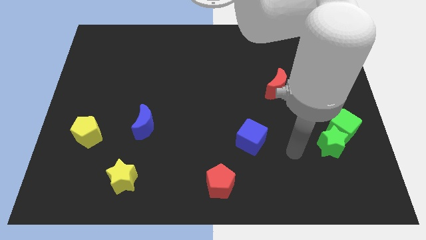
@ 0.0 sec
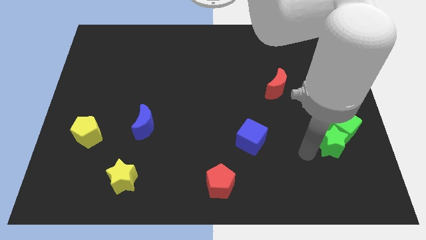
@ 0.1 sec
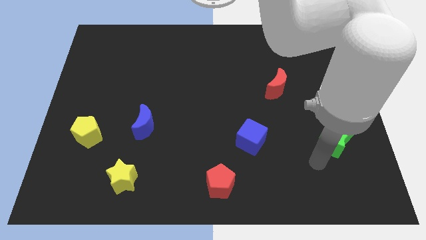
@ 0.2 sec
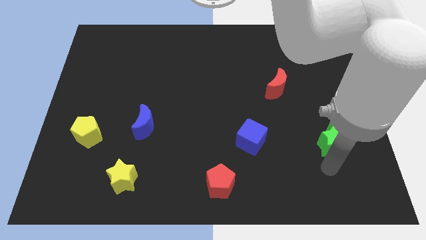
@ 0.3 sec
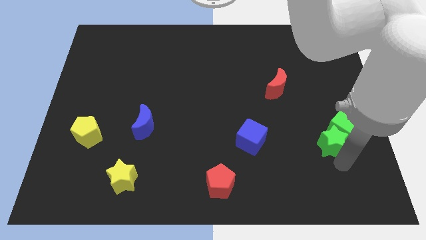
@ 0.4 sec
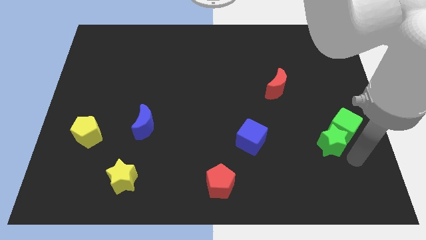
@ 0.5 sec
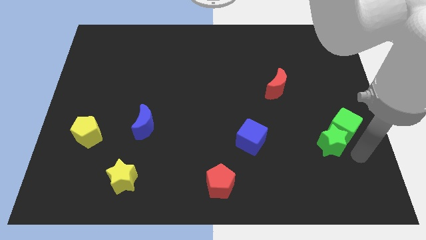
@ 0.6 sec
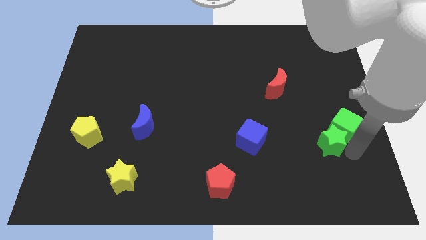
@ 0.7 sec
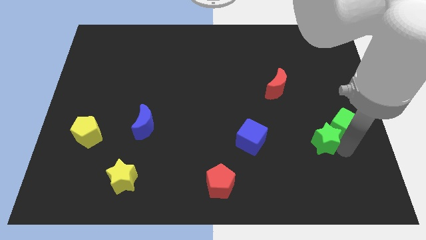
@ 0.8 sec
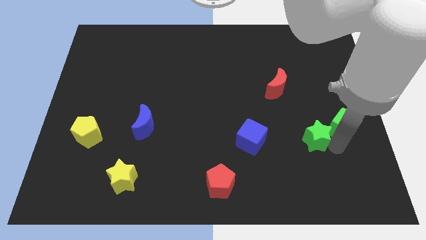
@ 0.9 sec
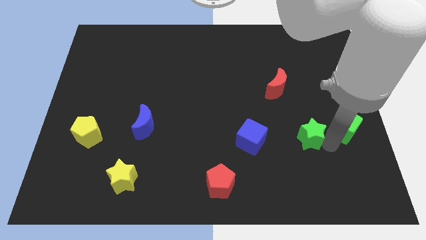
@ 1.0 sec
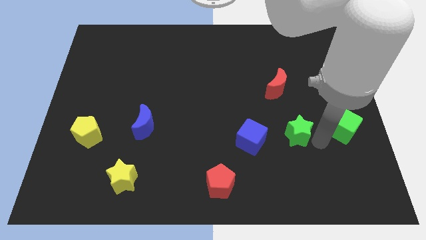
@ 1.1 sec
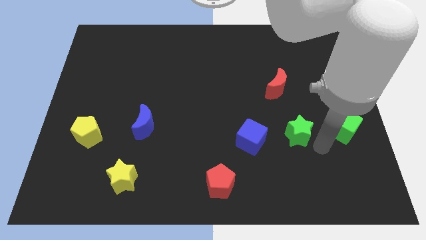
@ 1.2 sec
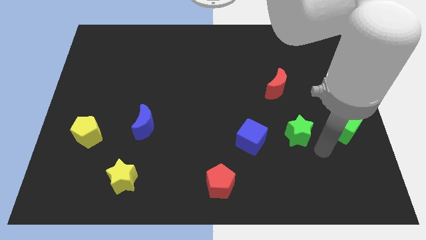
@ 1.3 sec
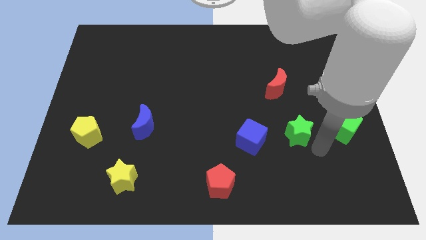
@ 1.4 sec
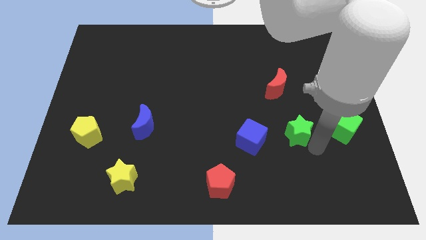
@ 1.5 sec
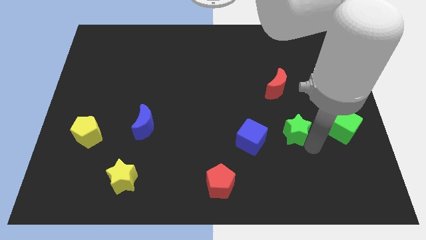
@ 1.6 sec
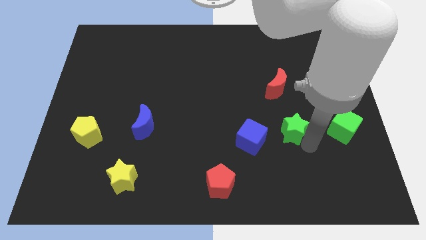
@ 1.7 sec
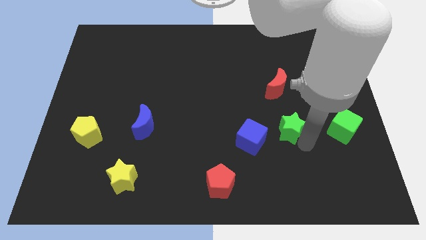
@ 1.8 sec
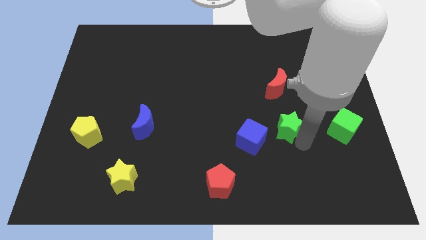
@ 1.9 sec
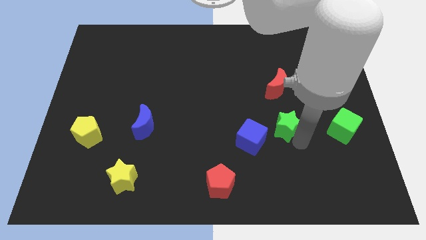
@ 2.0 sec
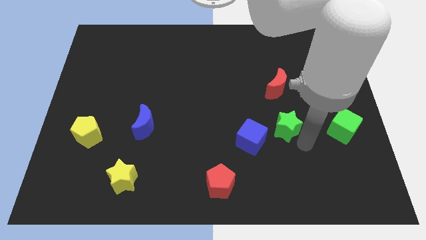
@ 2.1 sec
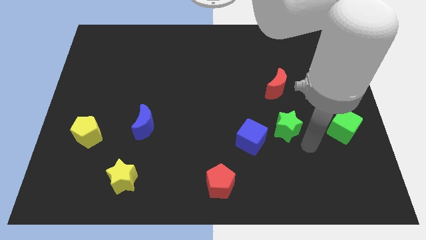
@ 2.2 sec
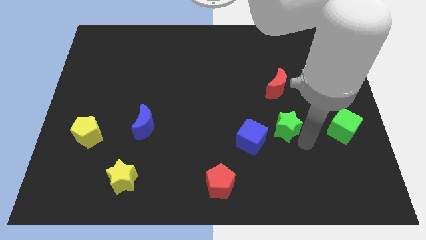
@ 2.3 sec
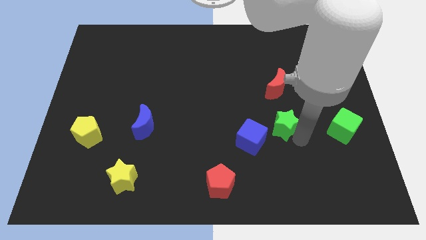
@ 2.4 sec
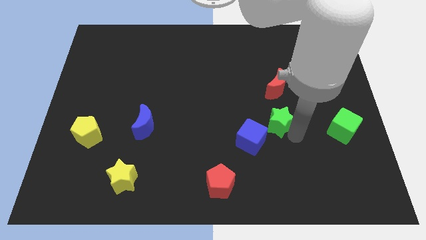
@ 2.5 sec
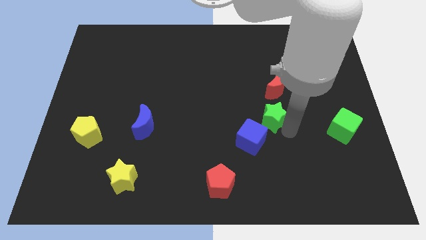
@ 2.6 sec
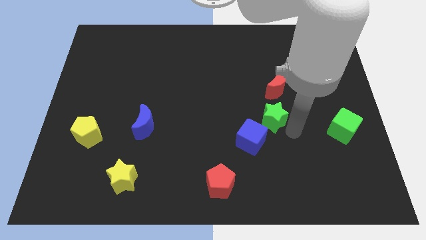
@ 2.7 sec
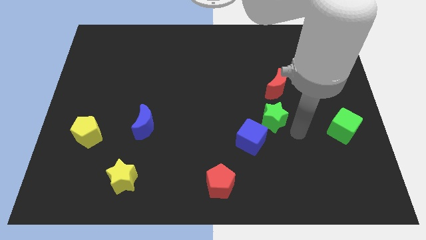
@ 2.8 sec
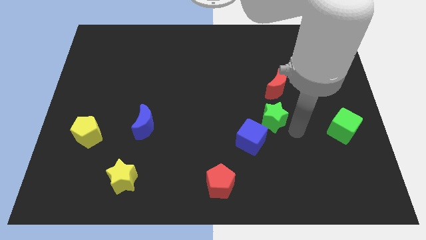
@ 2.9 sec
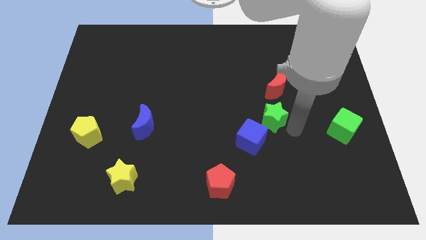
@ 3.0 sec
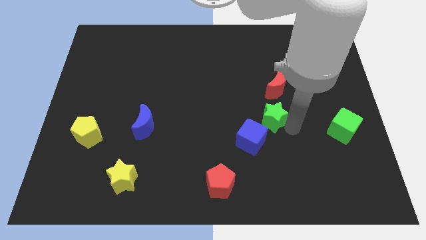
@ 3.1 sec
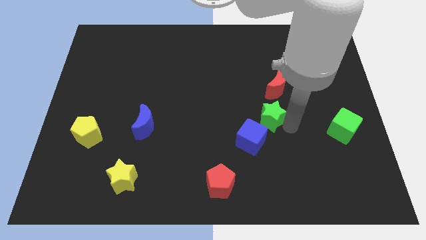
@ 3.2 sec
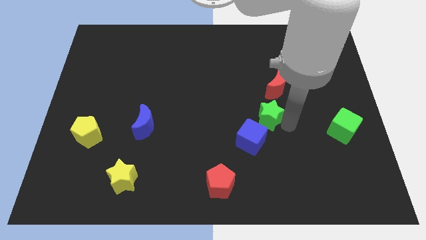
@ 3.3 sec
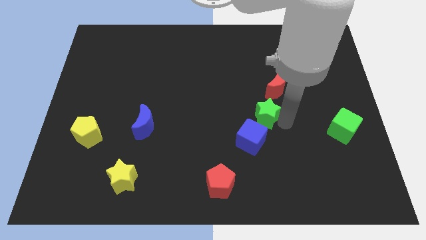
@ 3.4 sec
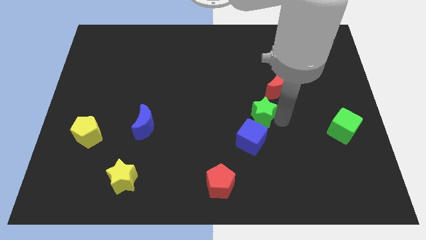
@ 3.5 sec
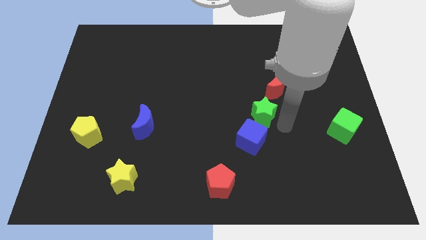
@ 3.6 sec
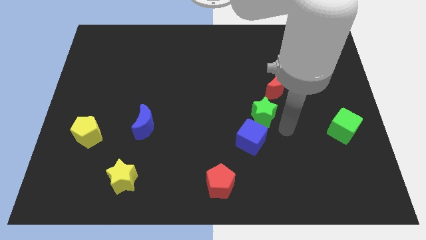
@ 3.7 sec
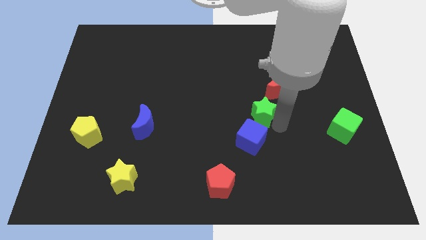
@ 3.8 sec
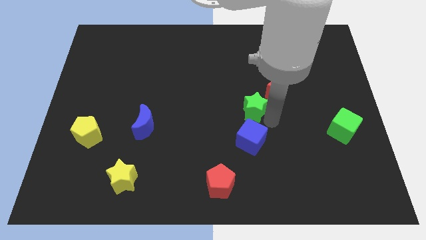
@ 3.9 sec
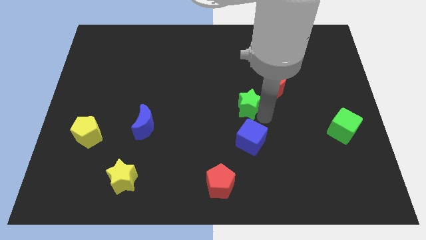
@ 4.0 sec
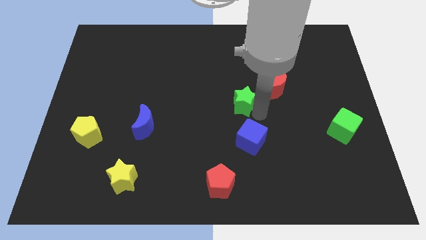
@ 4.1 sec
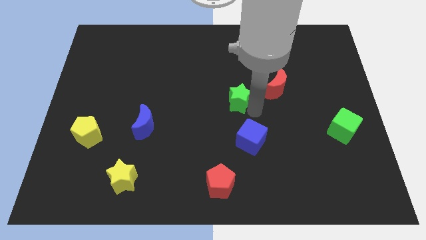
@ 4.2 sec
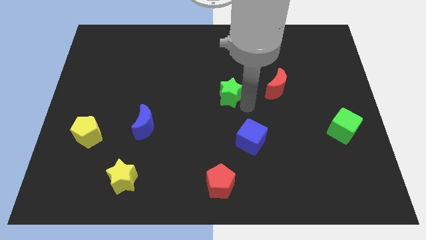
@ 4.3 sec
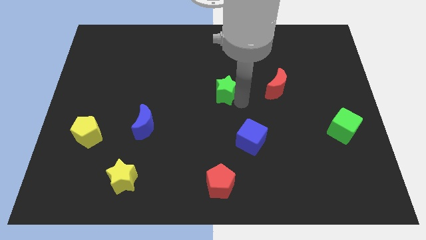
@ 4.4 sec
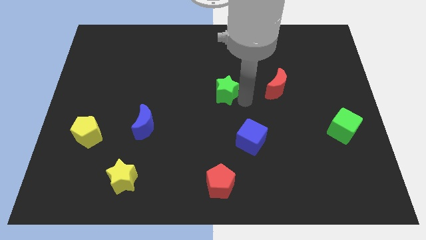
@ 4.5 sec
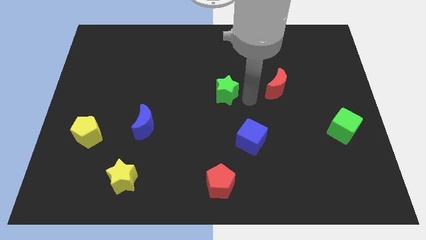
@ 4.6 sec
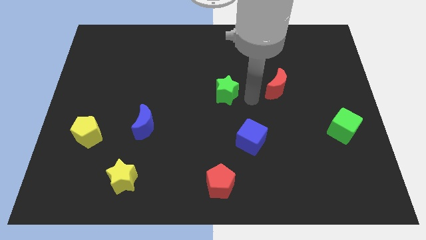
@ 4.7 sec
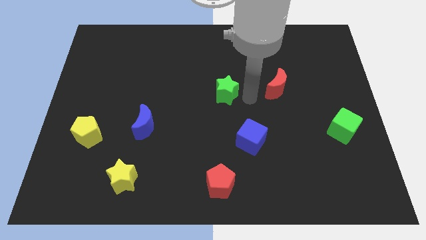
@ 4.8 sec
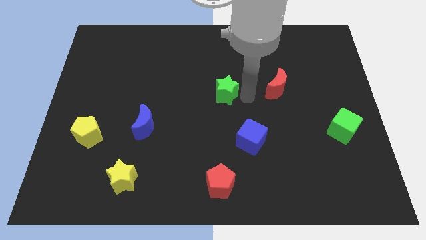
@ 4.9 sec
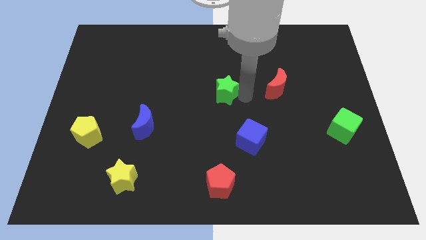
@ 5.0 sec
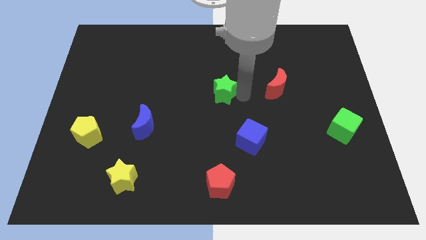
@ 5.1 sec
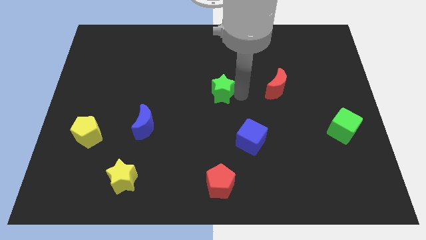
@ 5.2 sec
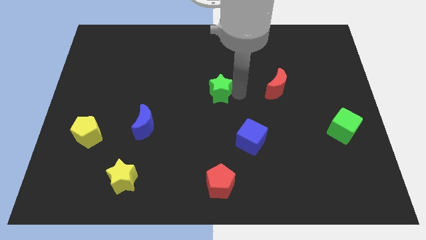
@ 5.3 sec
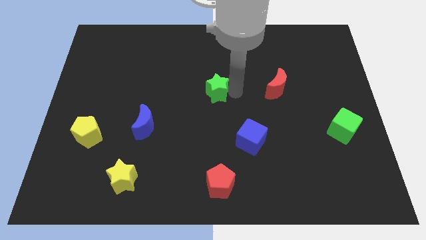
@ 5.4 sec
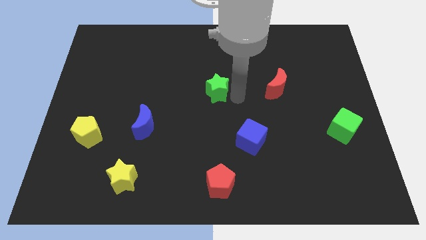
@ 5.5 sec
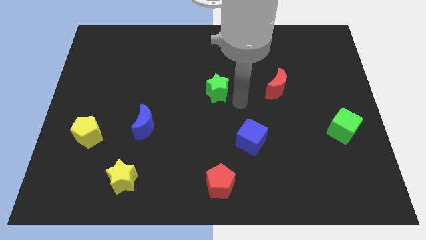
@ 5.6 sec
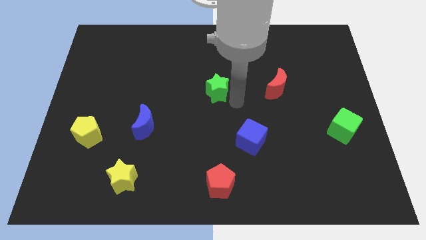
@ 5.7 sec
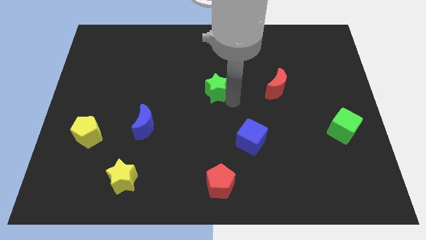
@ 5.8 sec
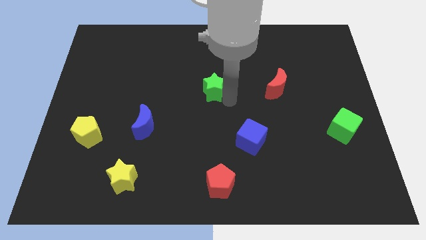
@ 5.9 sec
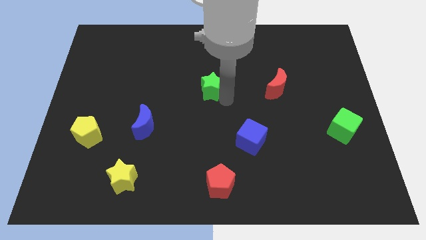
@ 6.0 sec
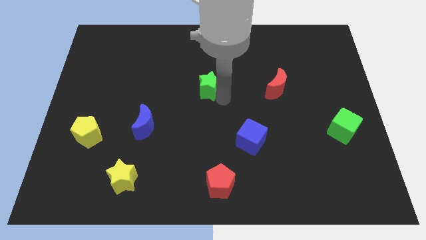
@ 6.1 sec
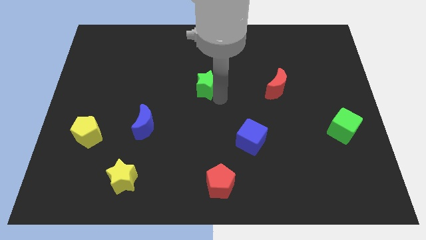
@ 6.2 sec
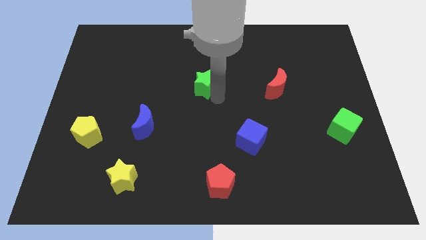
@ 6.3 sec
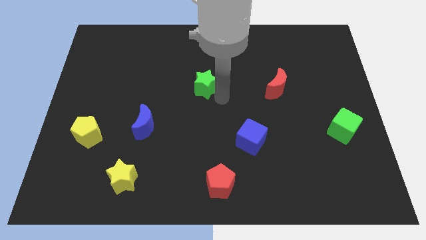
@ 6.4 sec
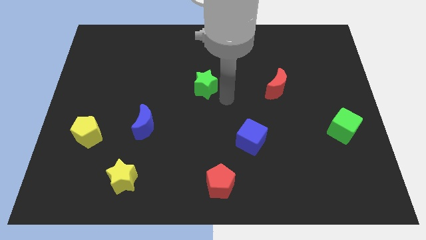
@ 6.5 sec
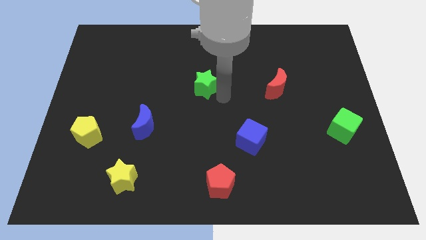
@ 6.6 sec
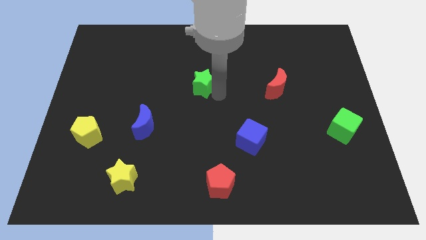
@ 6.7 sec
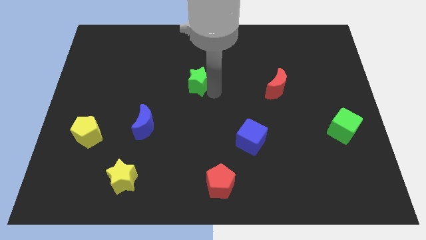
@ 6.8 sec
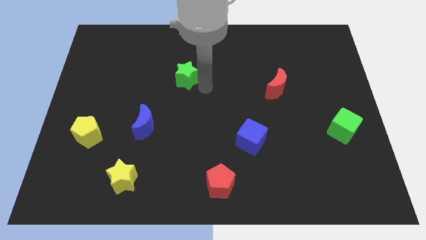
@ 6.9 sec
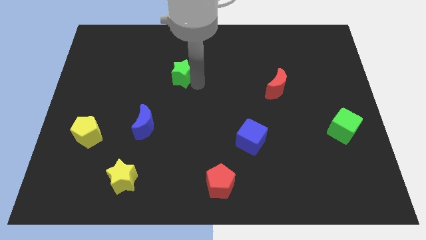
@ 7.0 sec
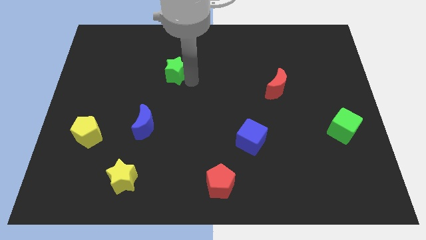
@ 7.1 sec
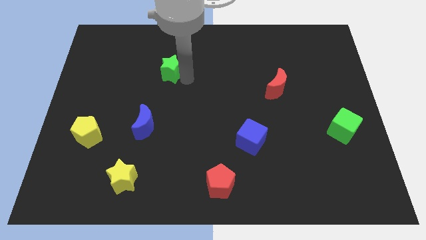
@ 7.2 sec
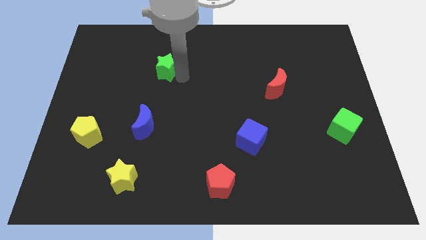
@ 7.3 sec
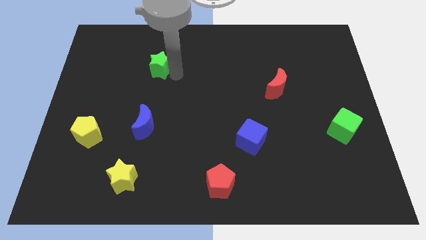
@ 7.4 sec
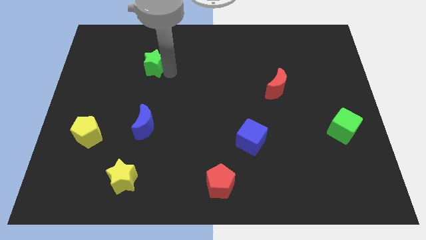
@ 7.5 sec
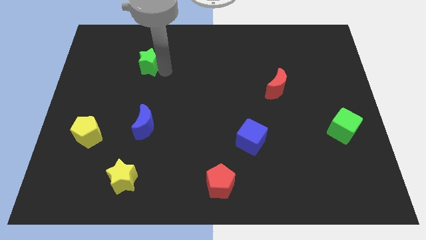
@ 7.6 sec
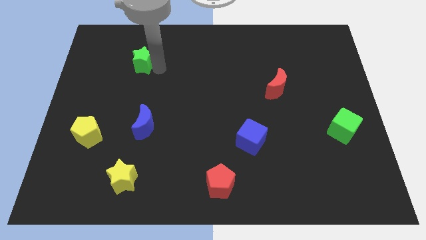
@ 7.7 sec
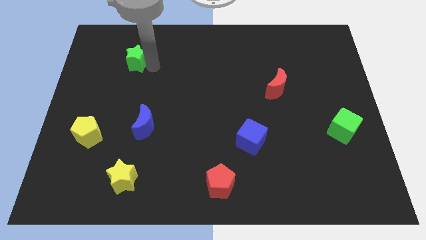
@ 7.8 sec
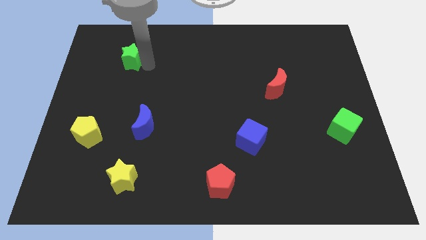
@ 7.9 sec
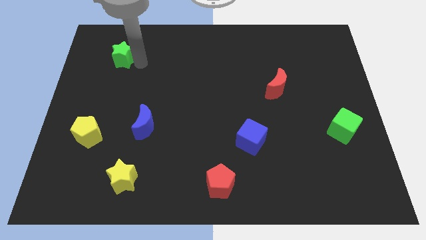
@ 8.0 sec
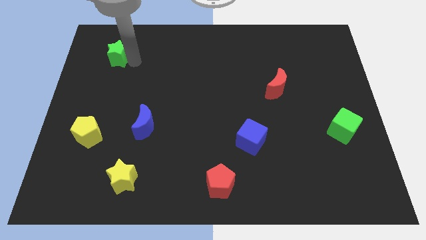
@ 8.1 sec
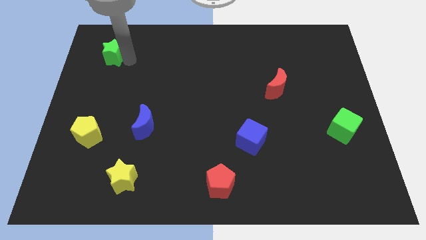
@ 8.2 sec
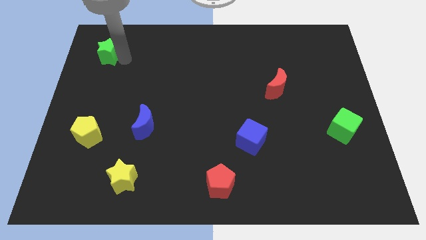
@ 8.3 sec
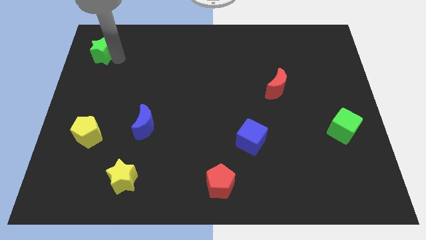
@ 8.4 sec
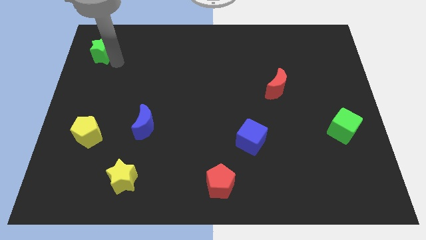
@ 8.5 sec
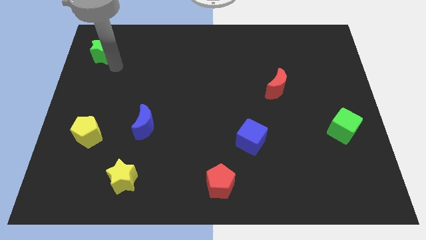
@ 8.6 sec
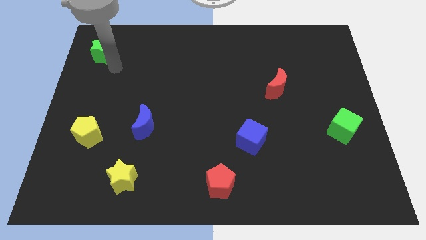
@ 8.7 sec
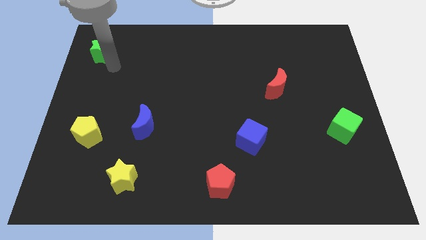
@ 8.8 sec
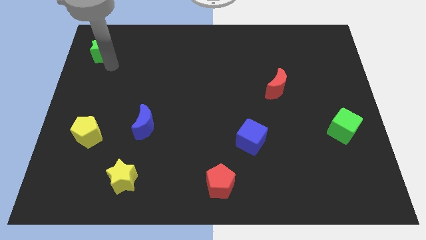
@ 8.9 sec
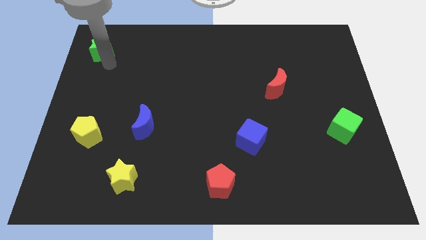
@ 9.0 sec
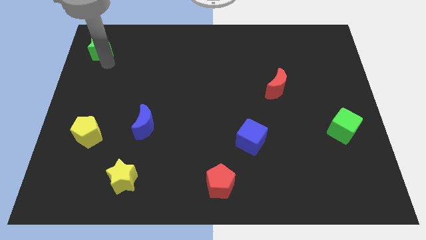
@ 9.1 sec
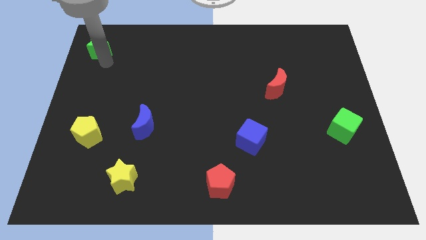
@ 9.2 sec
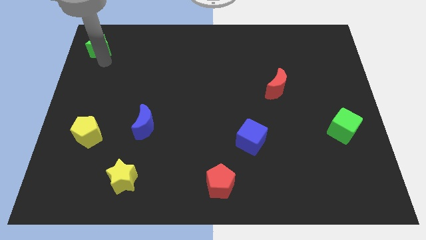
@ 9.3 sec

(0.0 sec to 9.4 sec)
slide the green star to the top left
